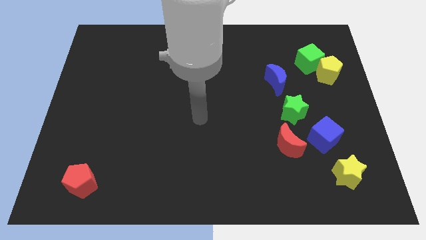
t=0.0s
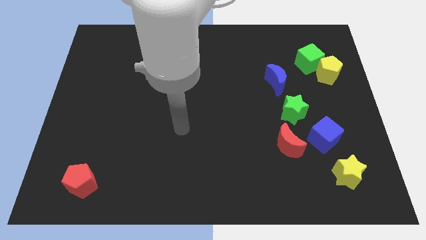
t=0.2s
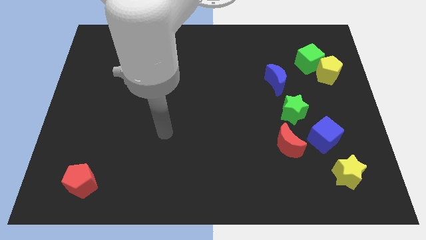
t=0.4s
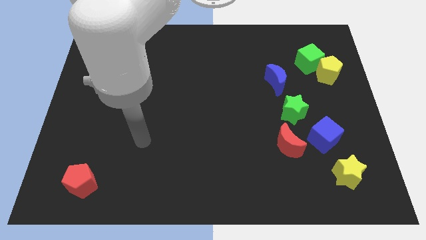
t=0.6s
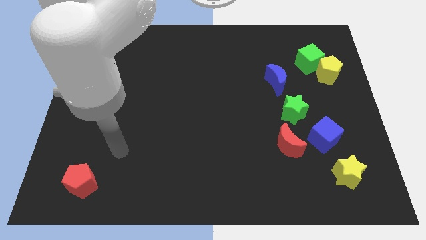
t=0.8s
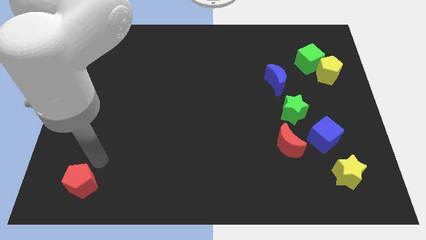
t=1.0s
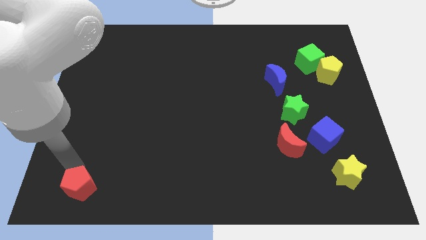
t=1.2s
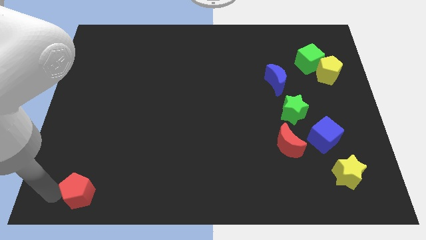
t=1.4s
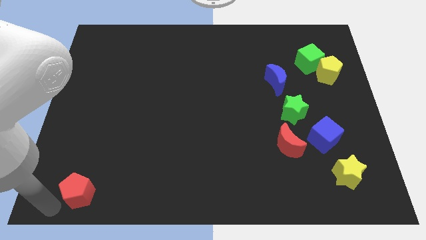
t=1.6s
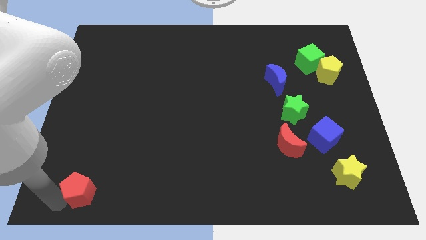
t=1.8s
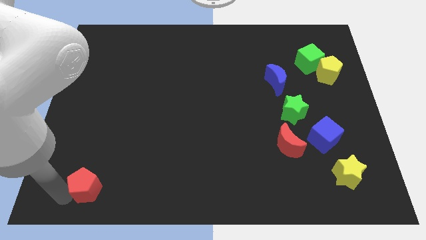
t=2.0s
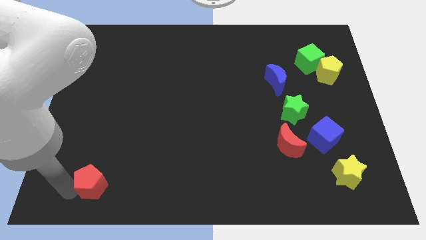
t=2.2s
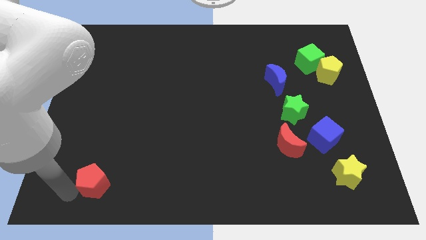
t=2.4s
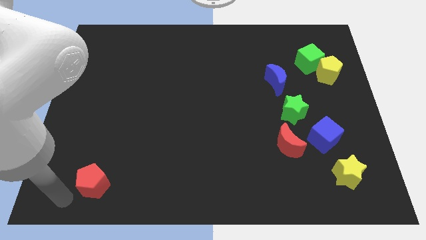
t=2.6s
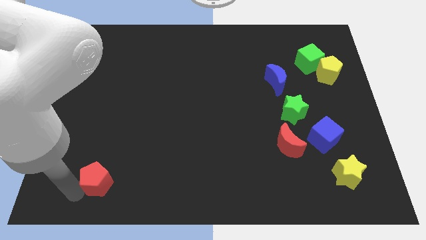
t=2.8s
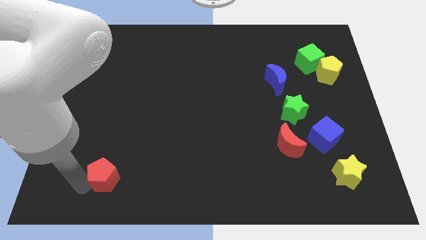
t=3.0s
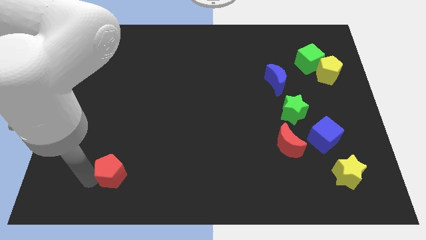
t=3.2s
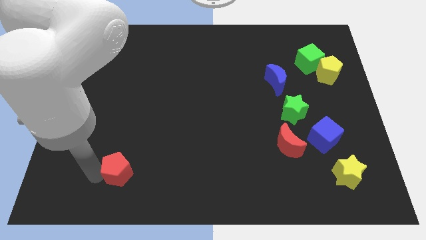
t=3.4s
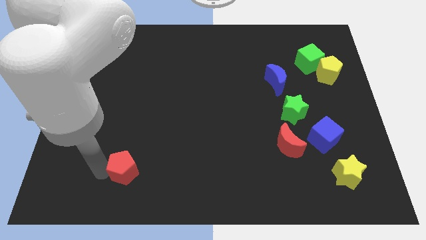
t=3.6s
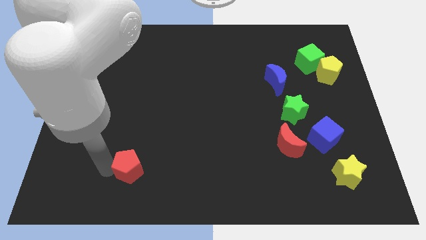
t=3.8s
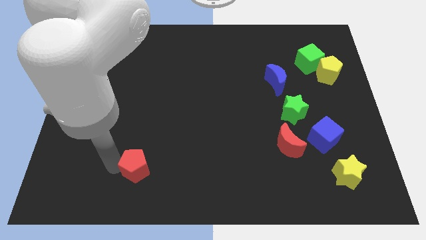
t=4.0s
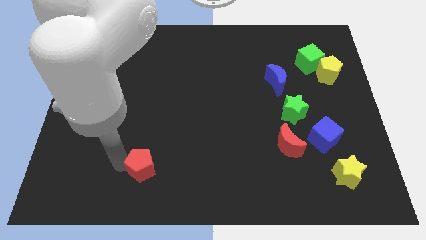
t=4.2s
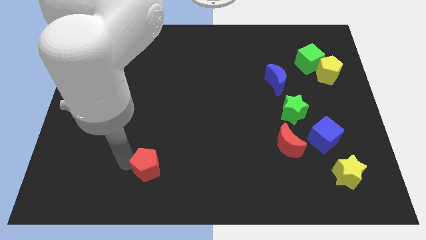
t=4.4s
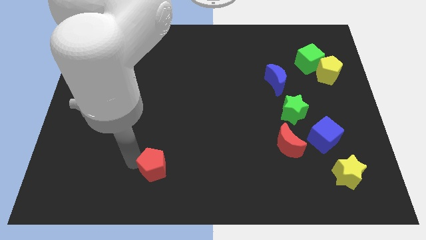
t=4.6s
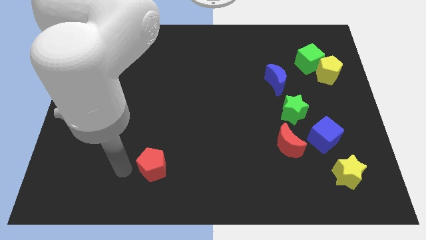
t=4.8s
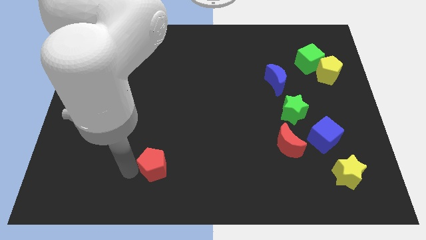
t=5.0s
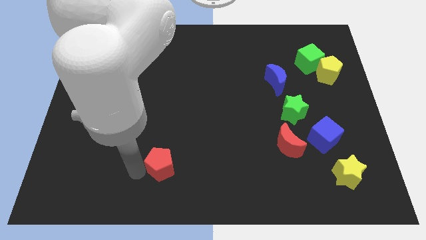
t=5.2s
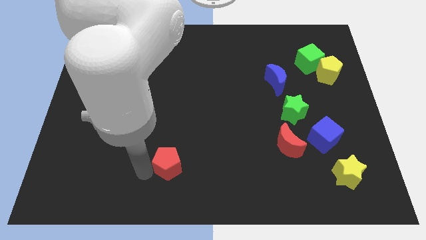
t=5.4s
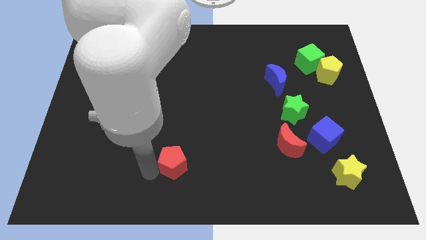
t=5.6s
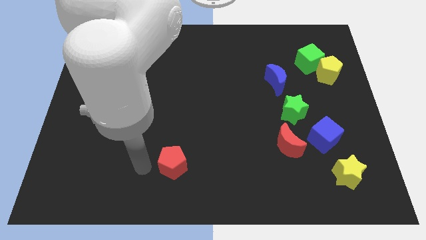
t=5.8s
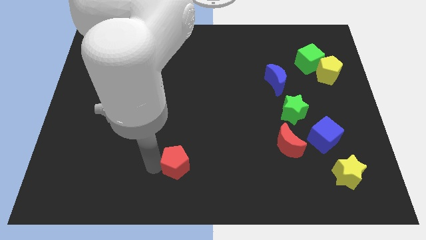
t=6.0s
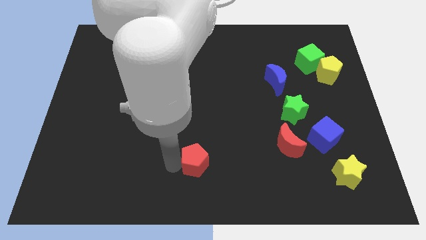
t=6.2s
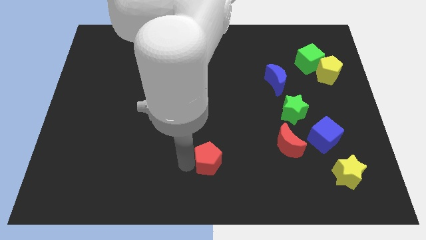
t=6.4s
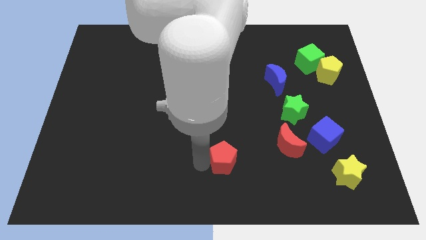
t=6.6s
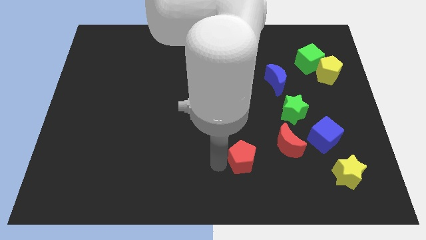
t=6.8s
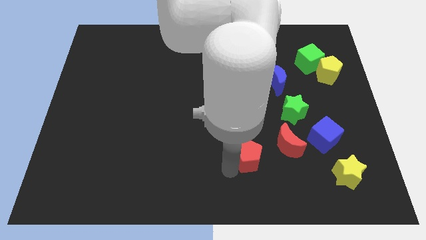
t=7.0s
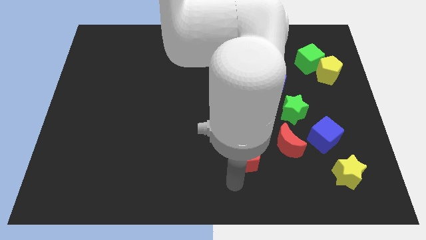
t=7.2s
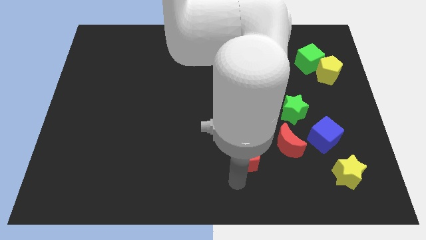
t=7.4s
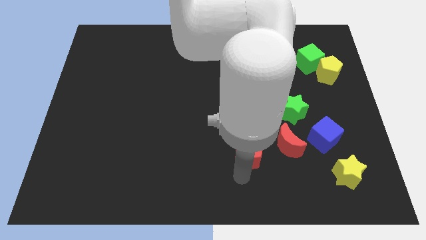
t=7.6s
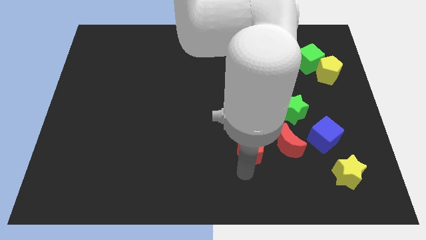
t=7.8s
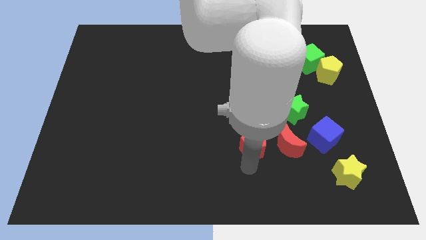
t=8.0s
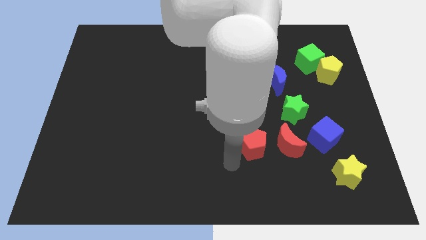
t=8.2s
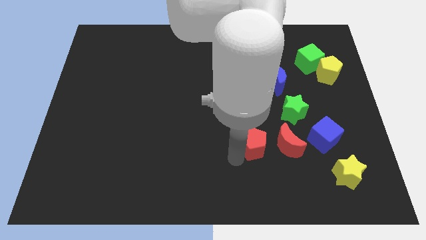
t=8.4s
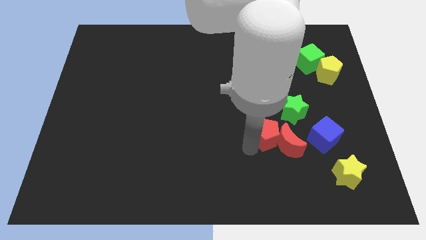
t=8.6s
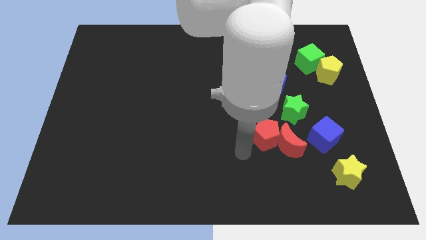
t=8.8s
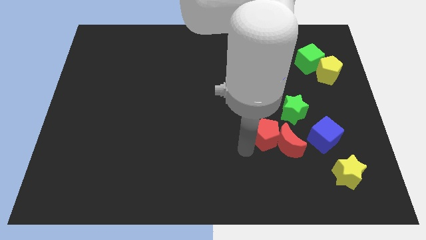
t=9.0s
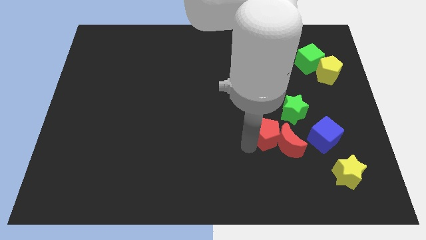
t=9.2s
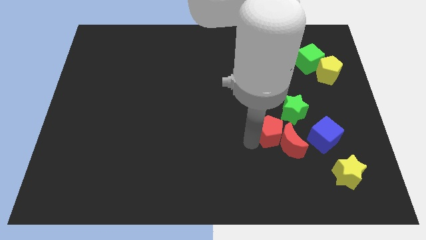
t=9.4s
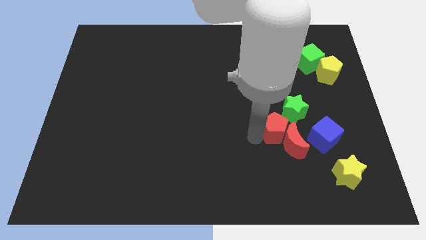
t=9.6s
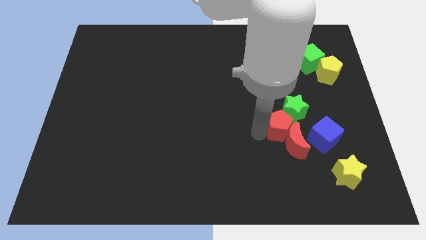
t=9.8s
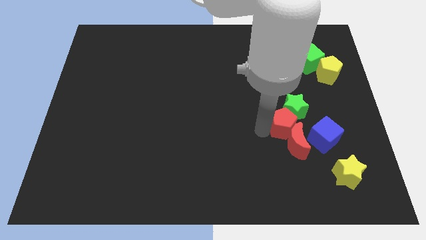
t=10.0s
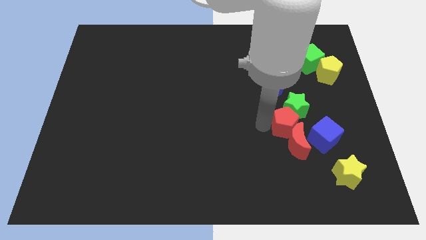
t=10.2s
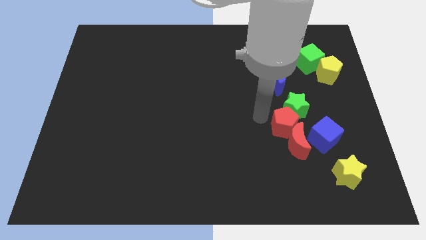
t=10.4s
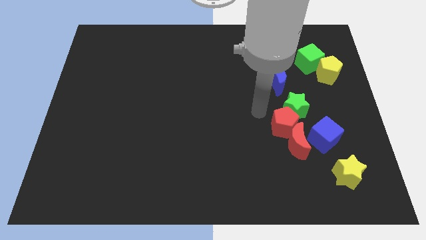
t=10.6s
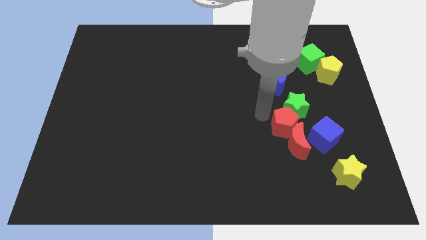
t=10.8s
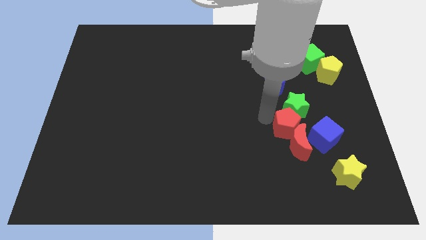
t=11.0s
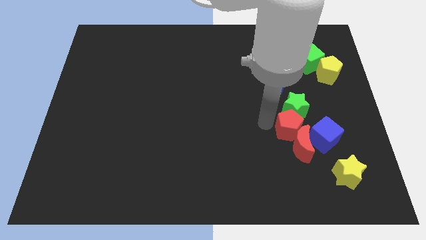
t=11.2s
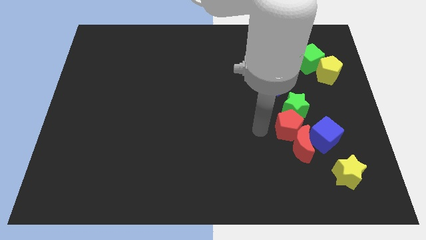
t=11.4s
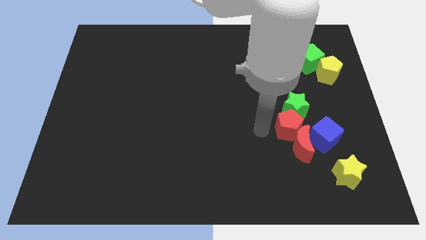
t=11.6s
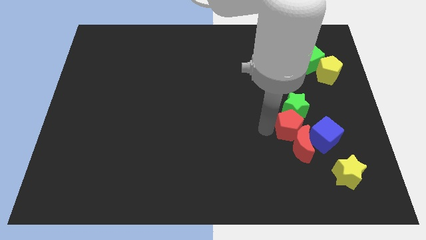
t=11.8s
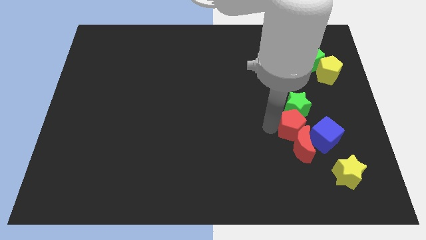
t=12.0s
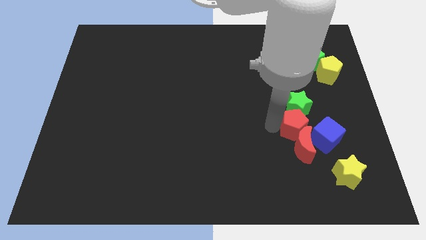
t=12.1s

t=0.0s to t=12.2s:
slide the red pentagon diagonally up and to the right of the red moon

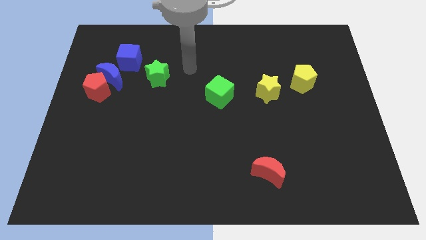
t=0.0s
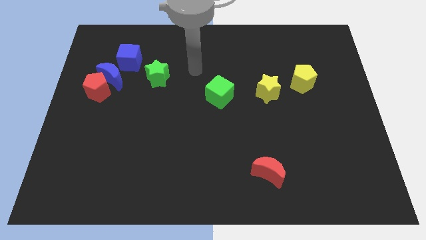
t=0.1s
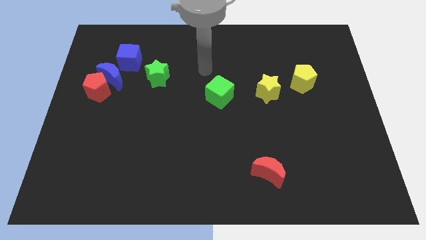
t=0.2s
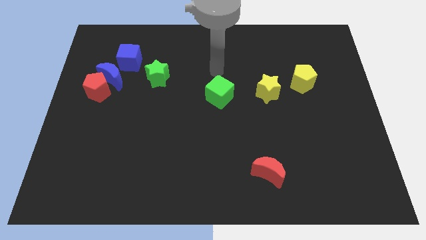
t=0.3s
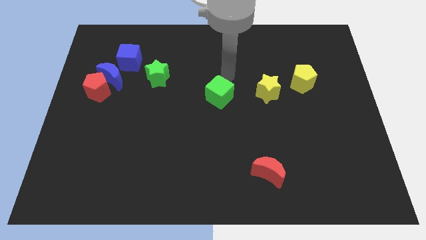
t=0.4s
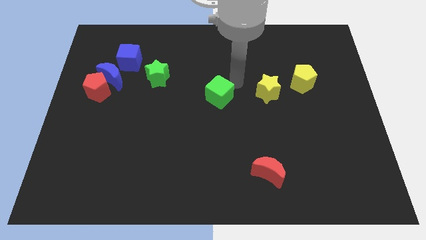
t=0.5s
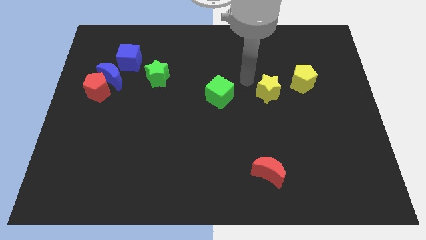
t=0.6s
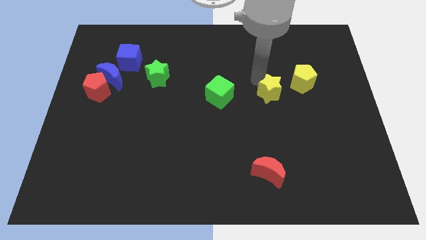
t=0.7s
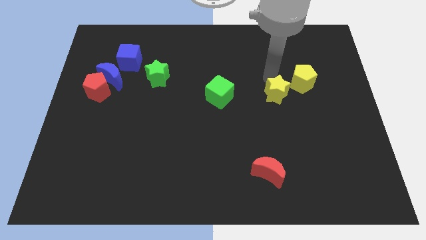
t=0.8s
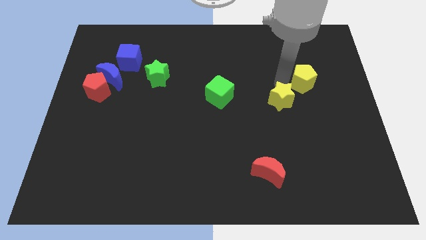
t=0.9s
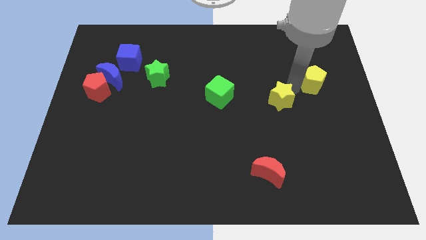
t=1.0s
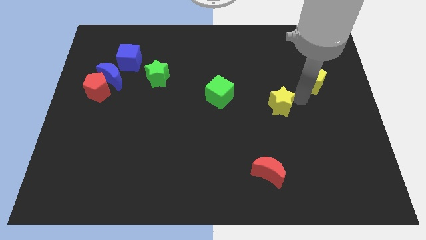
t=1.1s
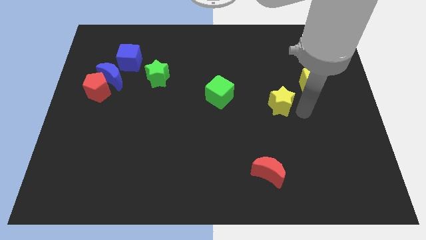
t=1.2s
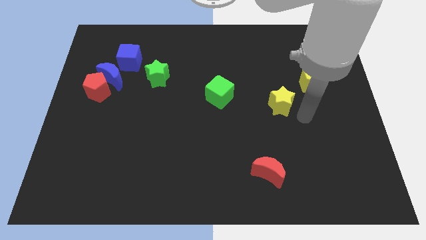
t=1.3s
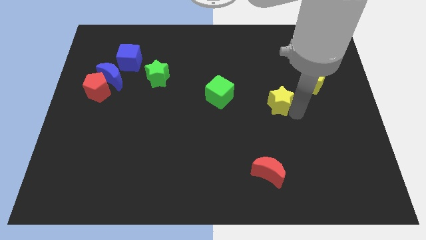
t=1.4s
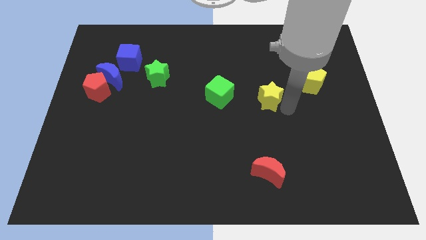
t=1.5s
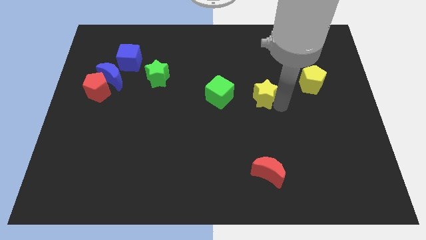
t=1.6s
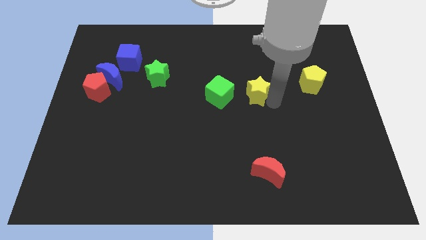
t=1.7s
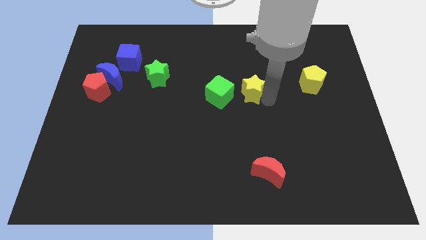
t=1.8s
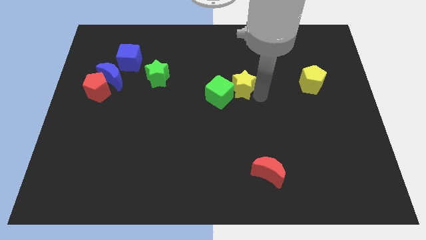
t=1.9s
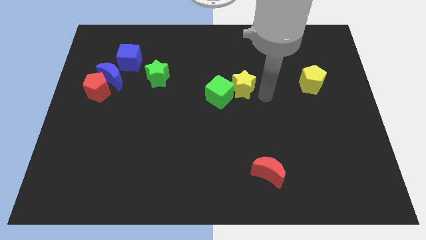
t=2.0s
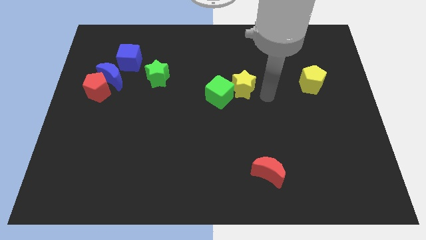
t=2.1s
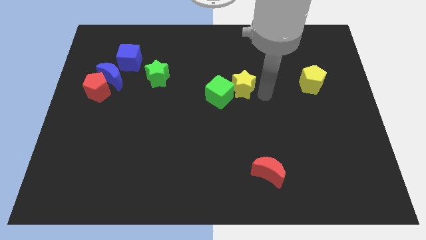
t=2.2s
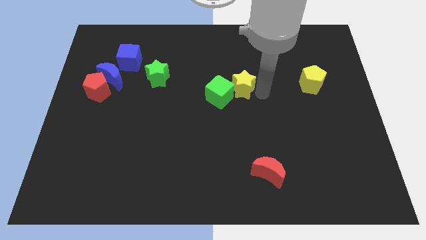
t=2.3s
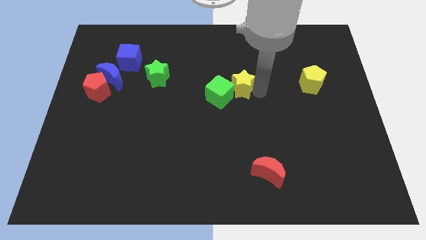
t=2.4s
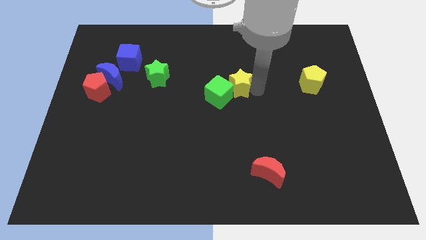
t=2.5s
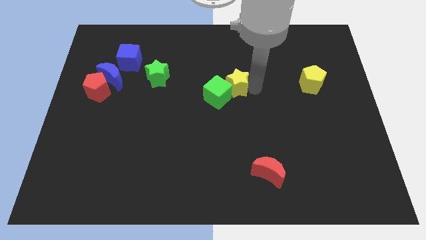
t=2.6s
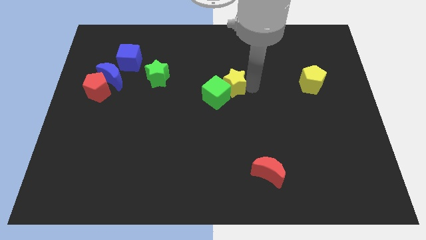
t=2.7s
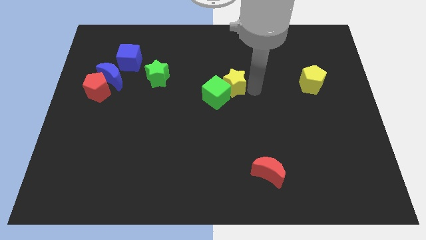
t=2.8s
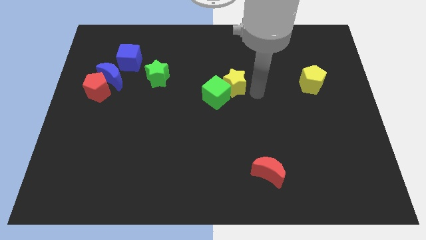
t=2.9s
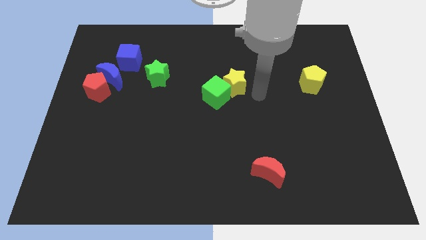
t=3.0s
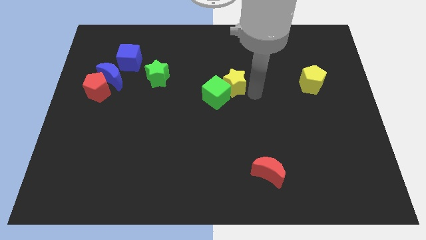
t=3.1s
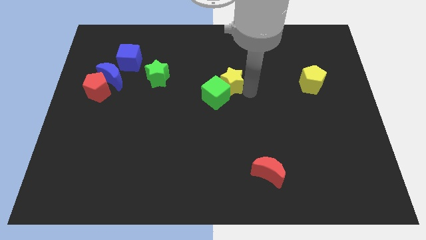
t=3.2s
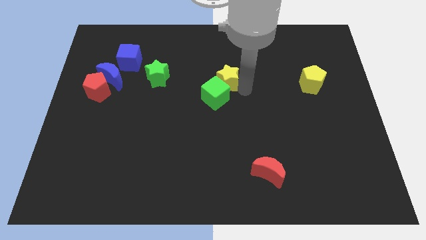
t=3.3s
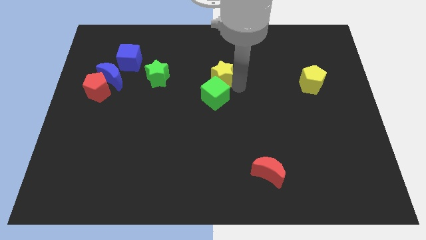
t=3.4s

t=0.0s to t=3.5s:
move the yellow star just right of the green star
